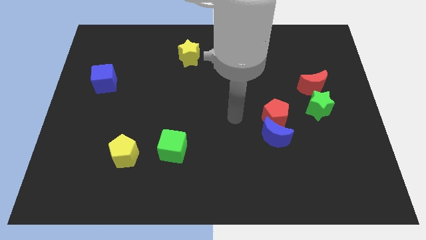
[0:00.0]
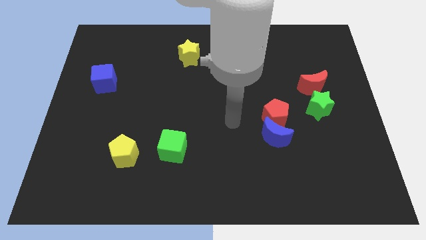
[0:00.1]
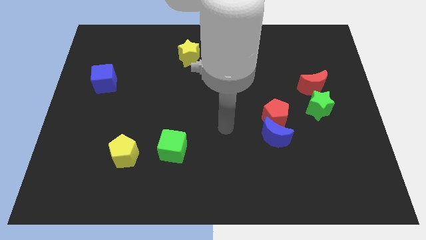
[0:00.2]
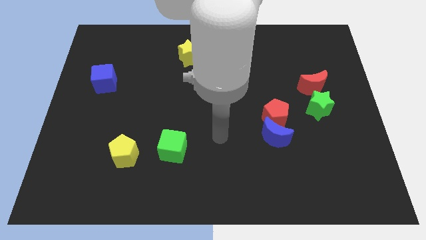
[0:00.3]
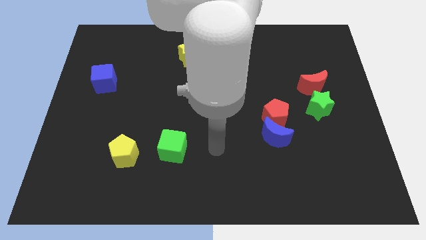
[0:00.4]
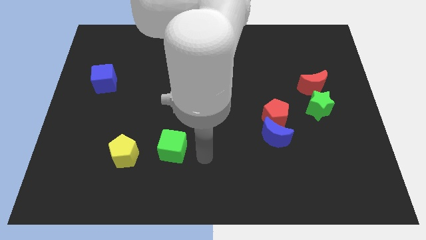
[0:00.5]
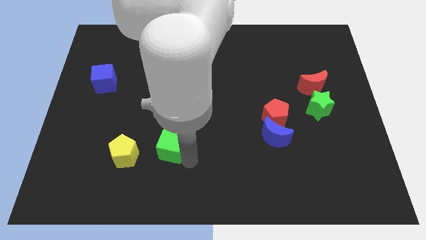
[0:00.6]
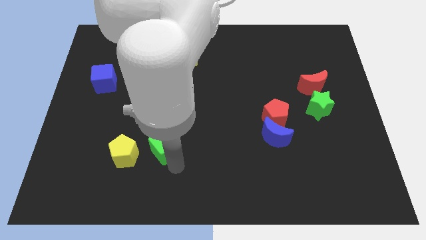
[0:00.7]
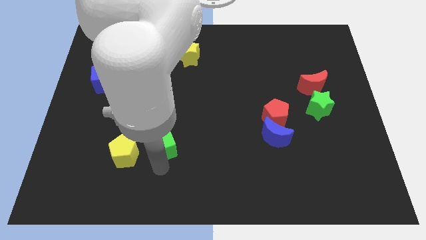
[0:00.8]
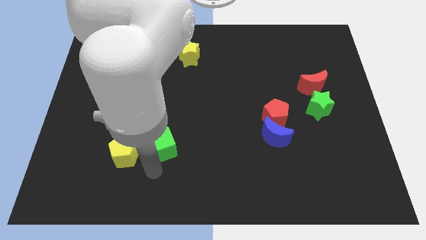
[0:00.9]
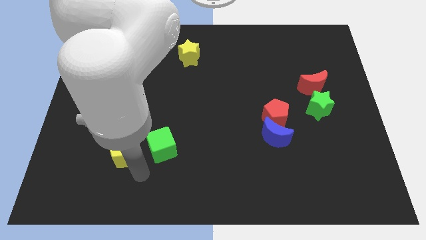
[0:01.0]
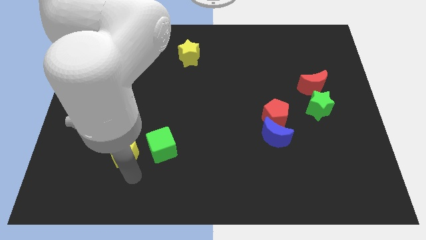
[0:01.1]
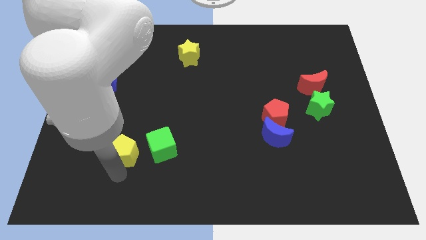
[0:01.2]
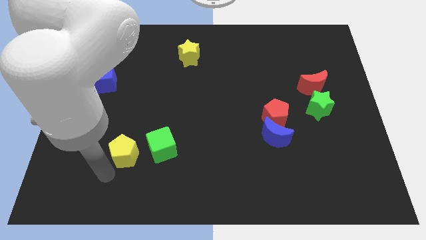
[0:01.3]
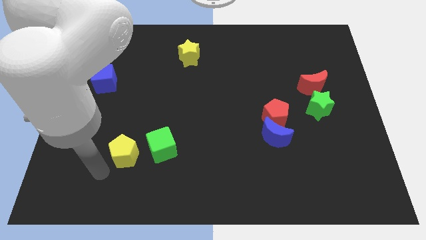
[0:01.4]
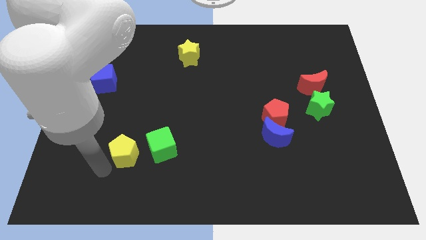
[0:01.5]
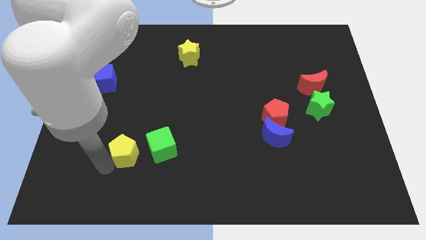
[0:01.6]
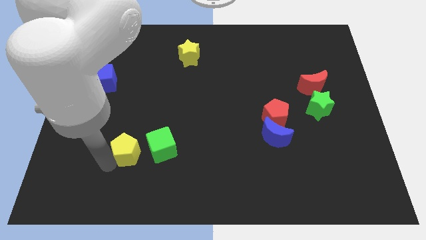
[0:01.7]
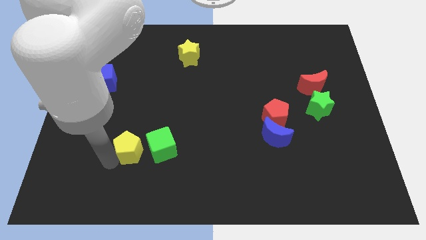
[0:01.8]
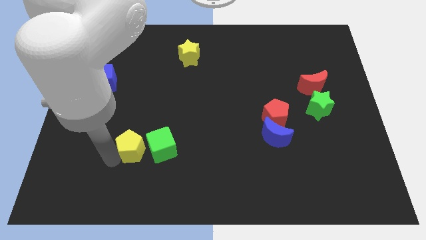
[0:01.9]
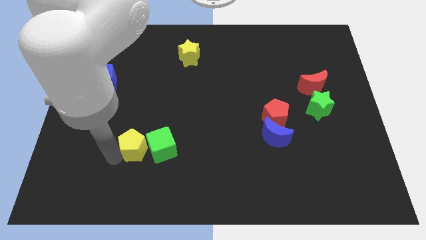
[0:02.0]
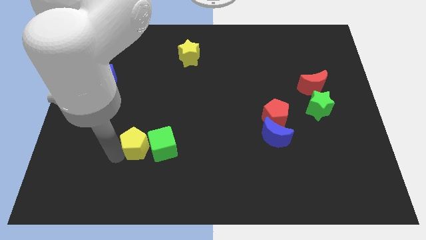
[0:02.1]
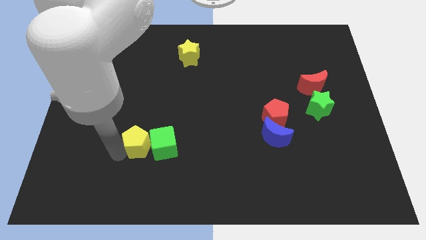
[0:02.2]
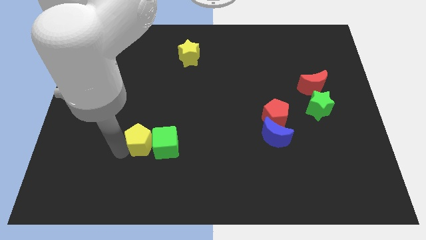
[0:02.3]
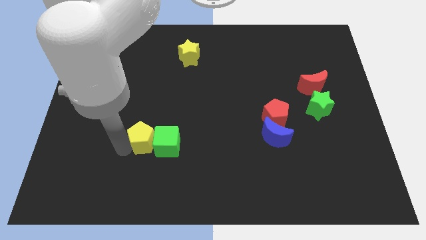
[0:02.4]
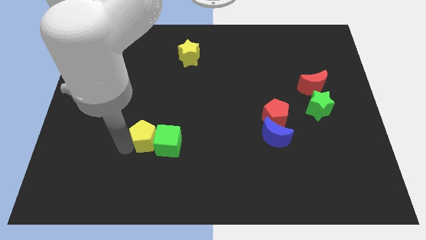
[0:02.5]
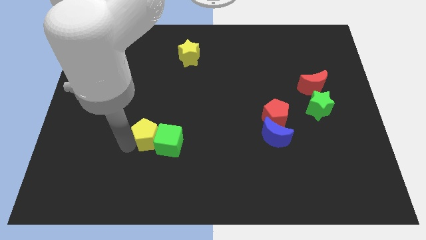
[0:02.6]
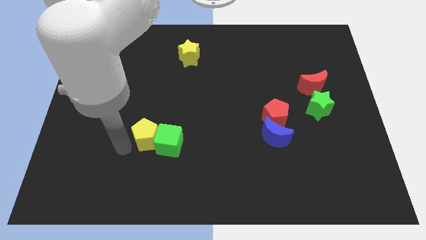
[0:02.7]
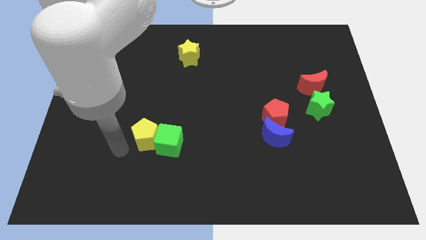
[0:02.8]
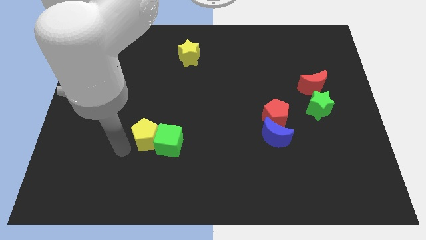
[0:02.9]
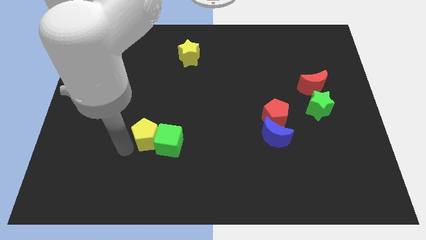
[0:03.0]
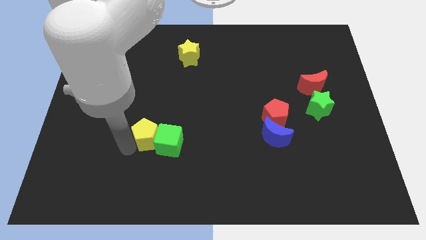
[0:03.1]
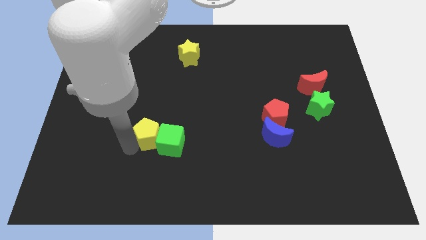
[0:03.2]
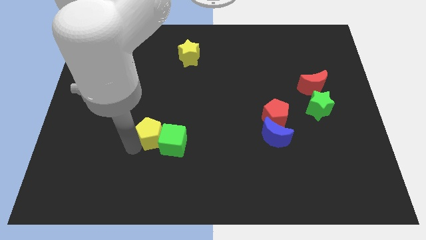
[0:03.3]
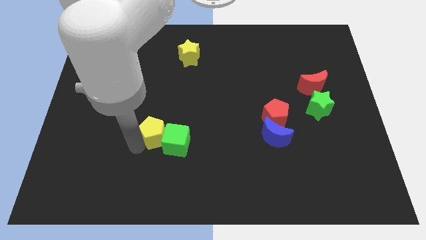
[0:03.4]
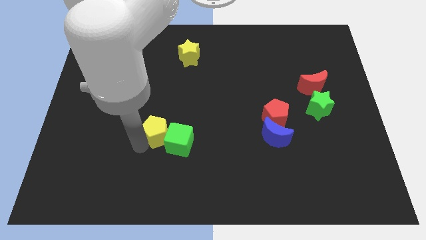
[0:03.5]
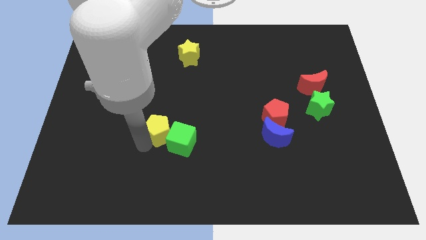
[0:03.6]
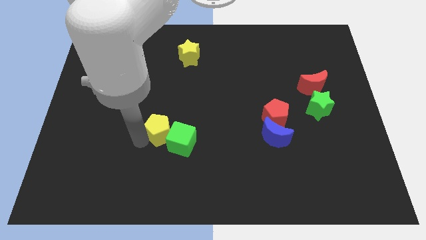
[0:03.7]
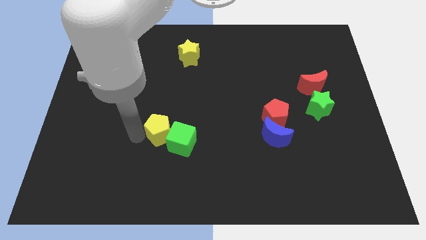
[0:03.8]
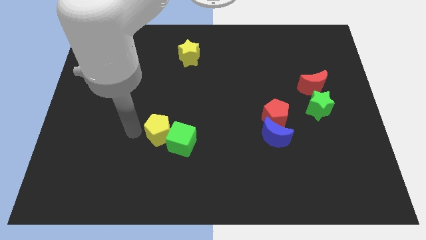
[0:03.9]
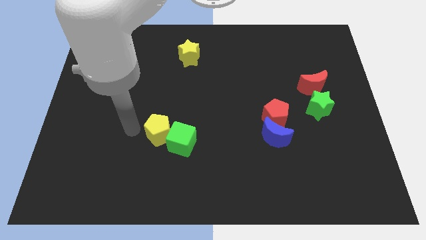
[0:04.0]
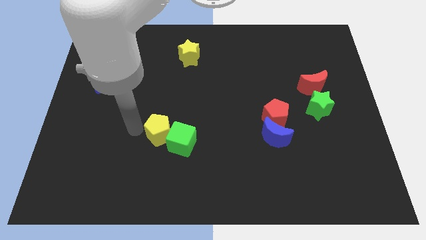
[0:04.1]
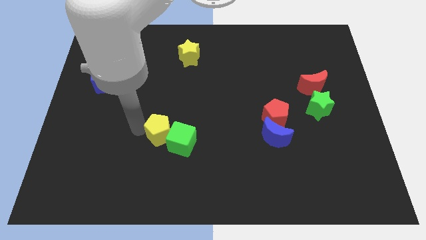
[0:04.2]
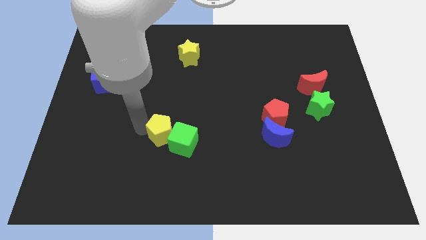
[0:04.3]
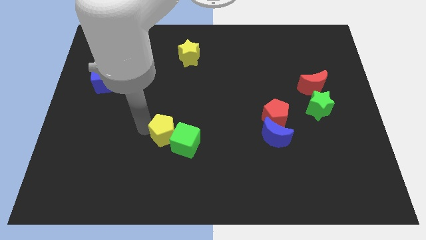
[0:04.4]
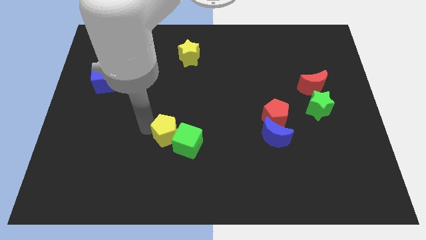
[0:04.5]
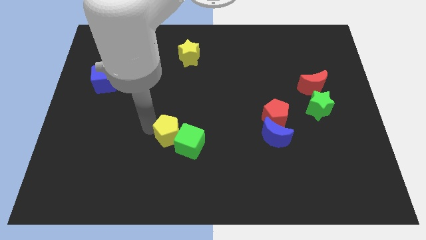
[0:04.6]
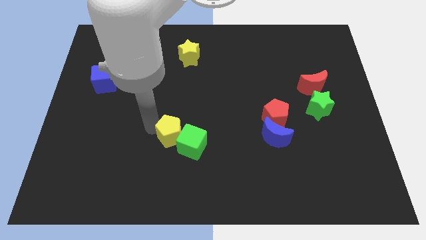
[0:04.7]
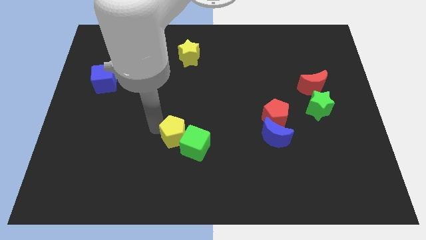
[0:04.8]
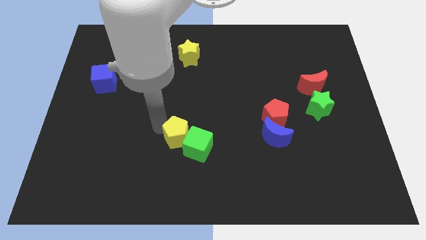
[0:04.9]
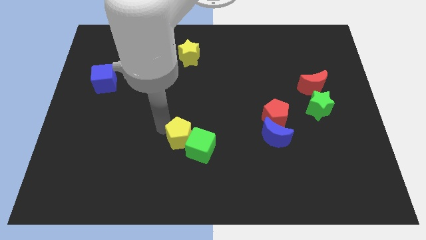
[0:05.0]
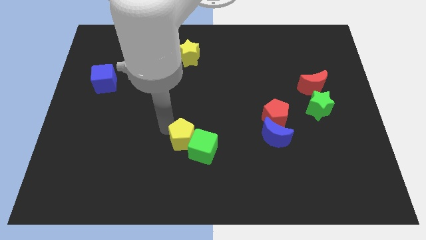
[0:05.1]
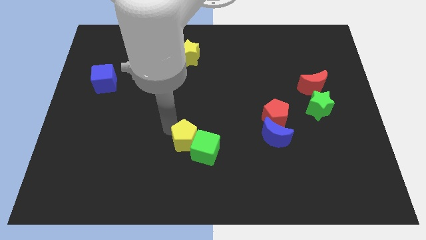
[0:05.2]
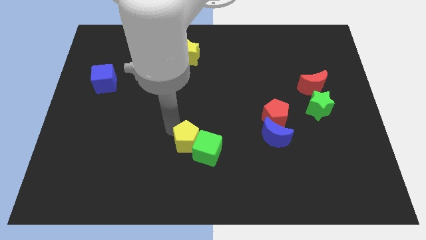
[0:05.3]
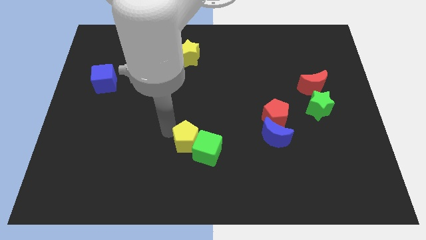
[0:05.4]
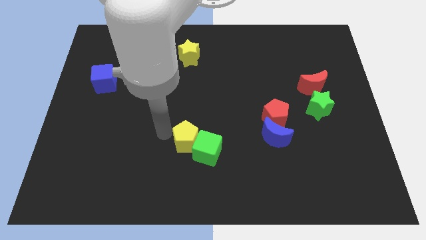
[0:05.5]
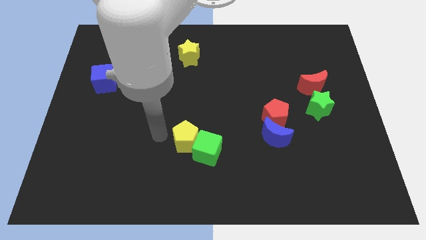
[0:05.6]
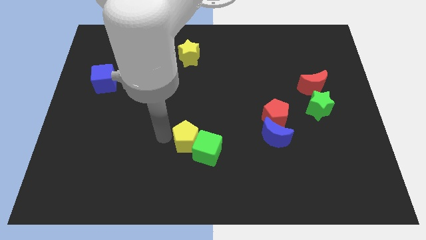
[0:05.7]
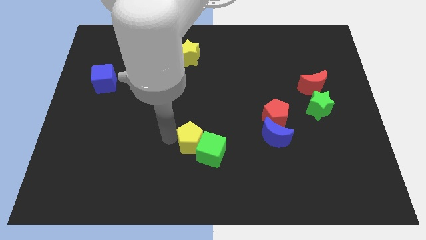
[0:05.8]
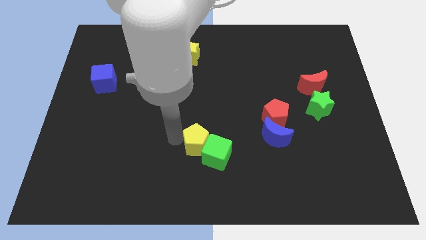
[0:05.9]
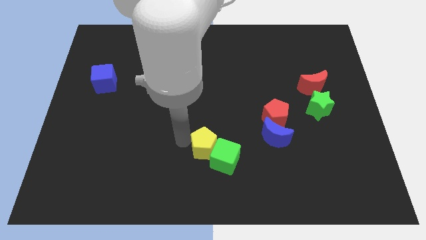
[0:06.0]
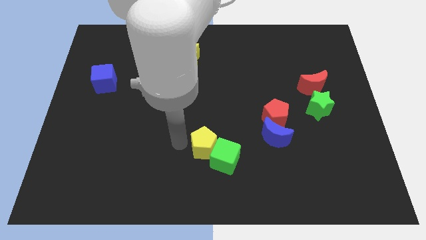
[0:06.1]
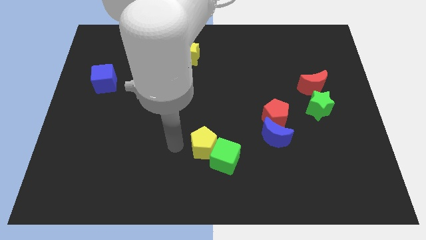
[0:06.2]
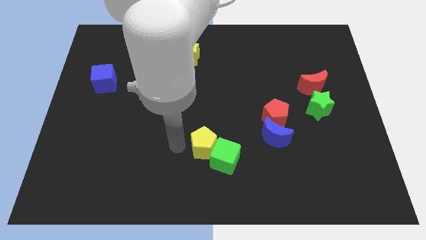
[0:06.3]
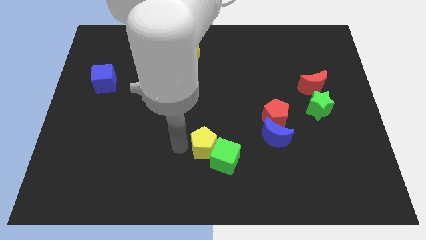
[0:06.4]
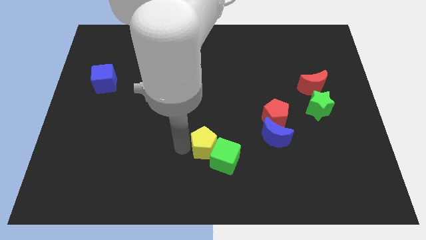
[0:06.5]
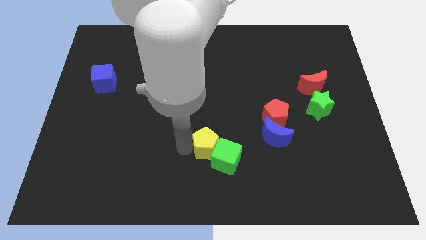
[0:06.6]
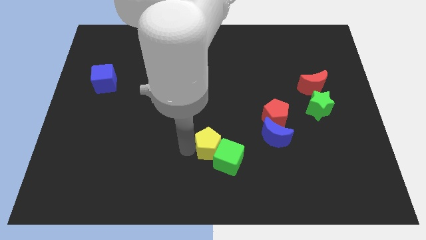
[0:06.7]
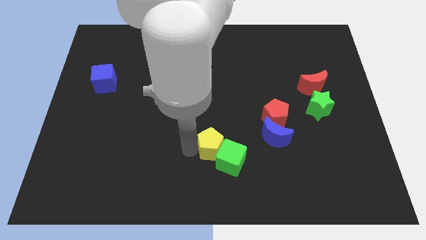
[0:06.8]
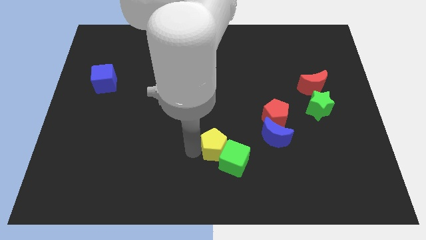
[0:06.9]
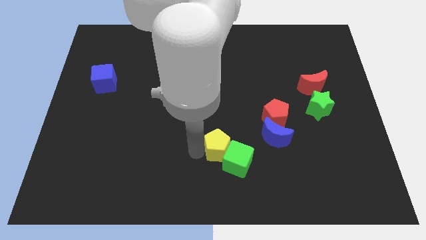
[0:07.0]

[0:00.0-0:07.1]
move the yellow pentagon right

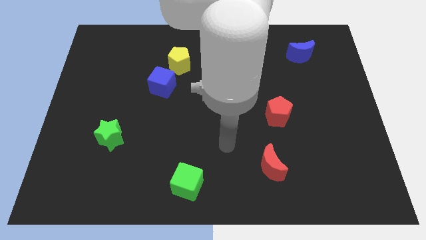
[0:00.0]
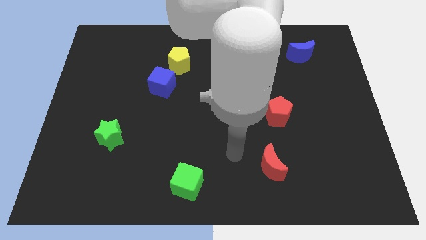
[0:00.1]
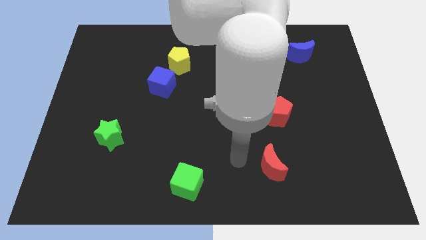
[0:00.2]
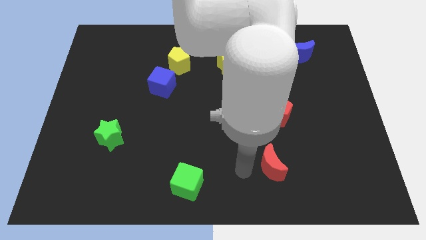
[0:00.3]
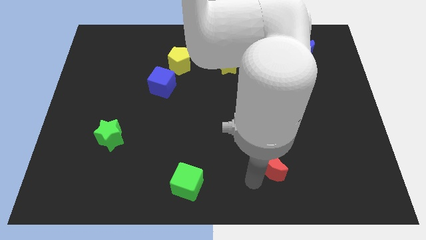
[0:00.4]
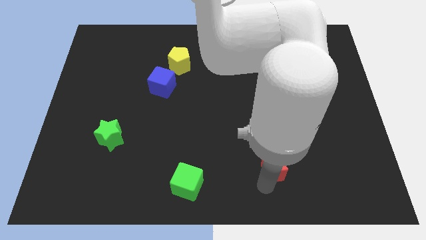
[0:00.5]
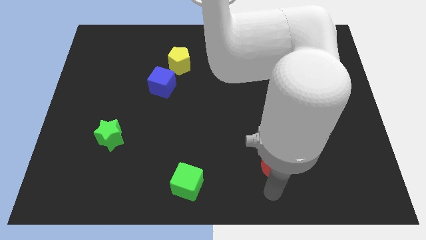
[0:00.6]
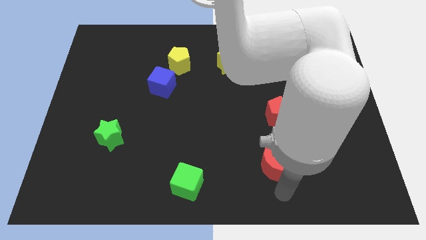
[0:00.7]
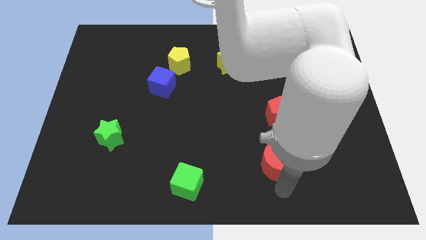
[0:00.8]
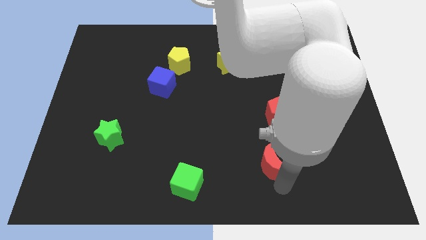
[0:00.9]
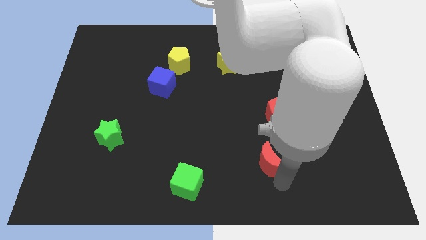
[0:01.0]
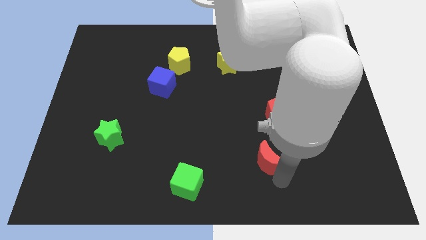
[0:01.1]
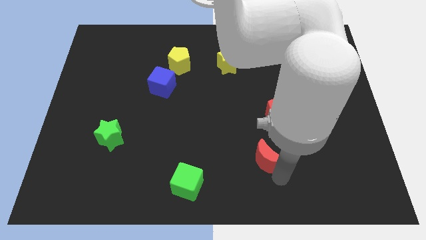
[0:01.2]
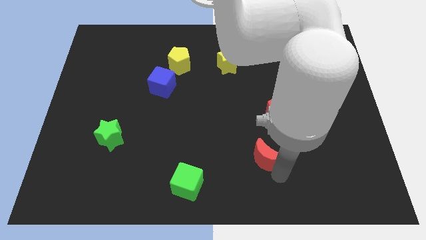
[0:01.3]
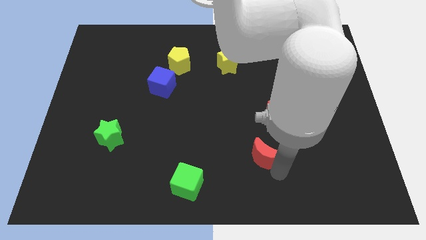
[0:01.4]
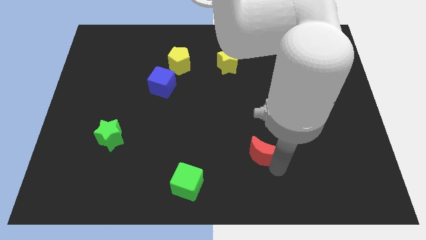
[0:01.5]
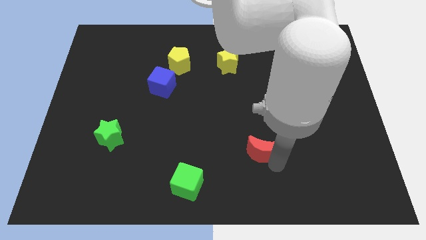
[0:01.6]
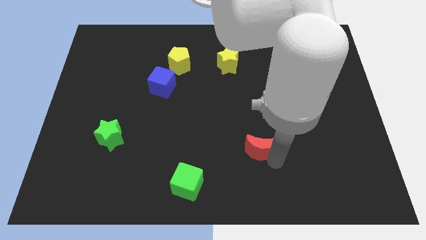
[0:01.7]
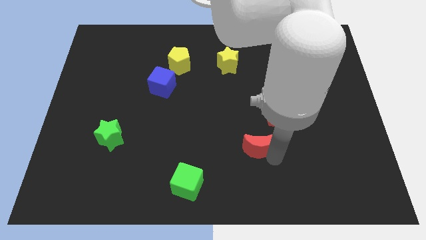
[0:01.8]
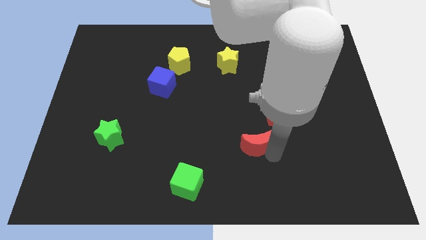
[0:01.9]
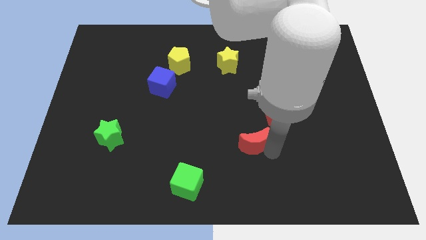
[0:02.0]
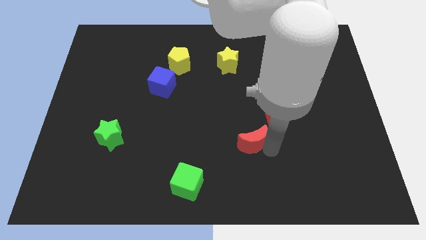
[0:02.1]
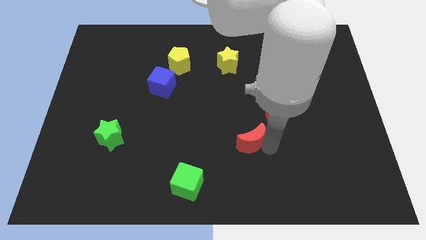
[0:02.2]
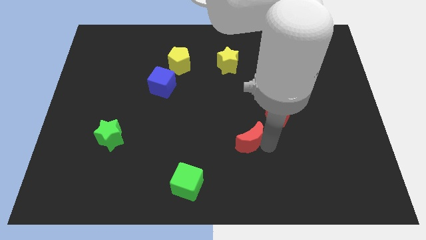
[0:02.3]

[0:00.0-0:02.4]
slide the red moon upwards and to the left slightly
